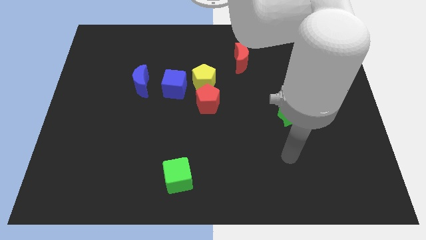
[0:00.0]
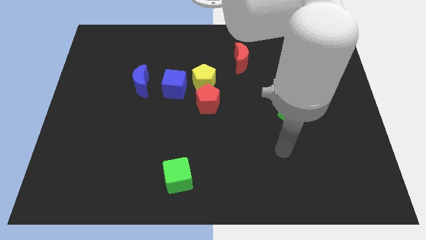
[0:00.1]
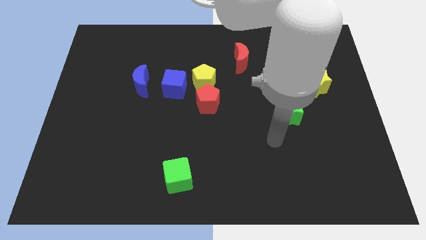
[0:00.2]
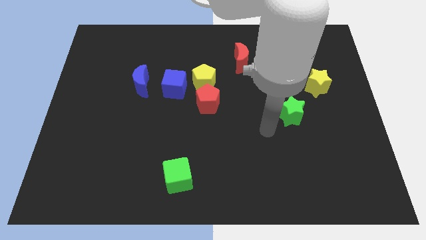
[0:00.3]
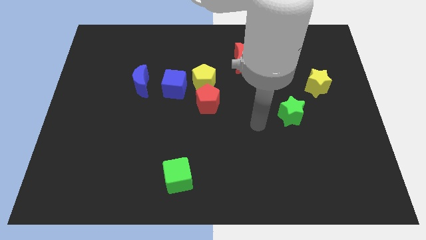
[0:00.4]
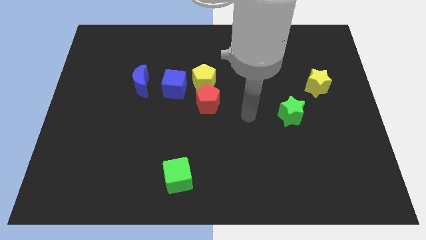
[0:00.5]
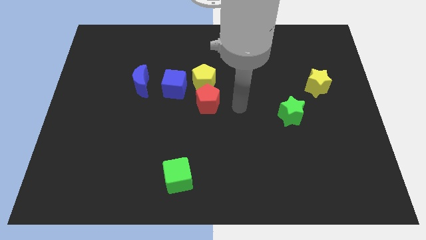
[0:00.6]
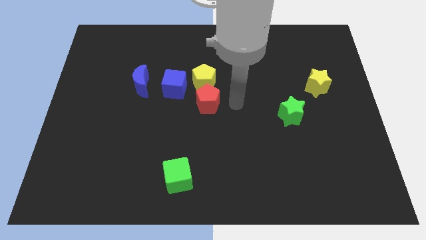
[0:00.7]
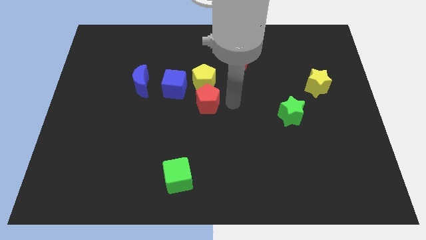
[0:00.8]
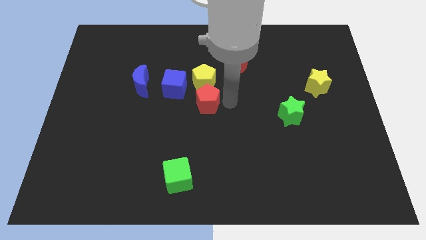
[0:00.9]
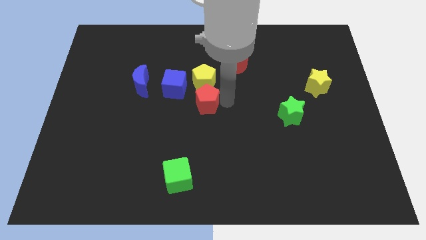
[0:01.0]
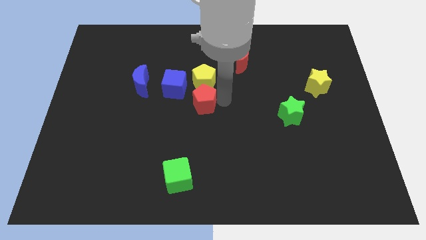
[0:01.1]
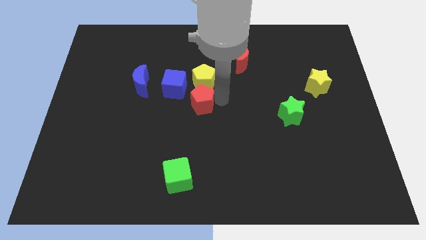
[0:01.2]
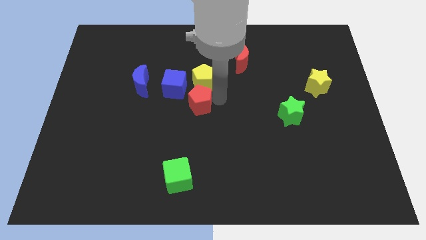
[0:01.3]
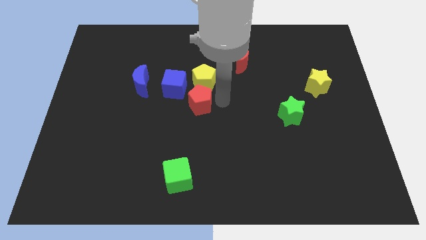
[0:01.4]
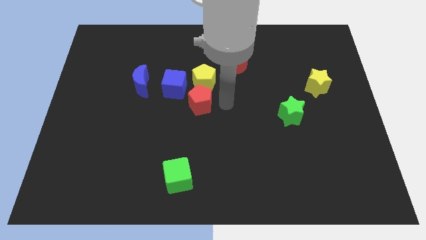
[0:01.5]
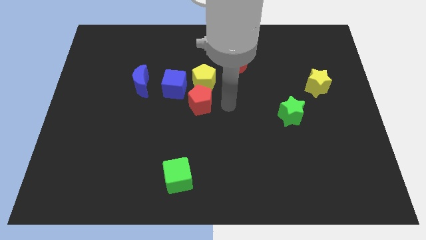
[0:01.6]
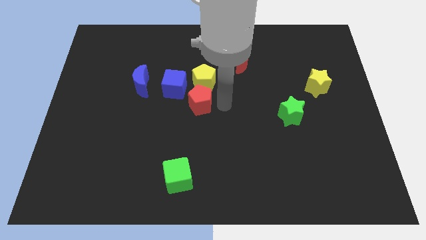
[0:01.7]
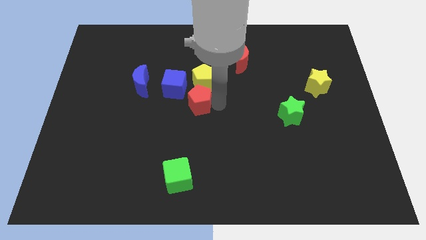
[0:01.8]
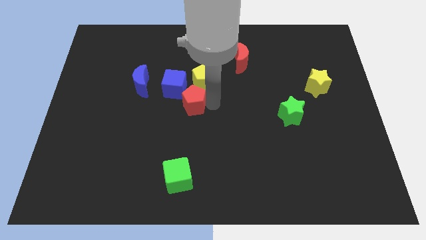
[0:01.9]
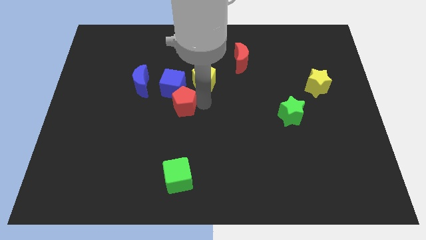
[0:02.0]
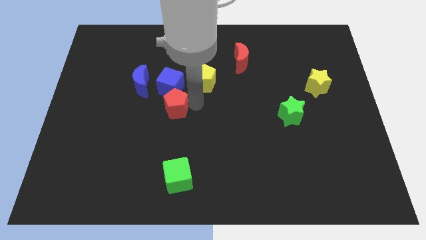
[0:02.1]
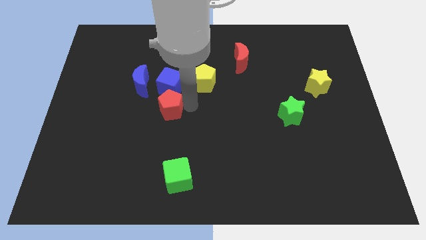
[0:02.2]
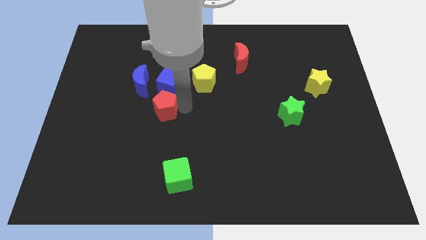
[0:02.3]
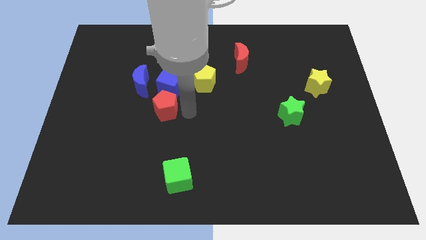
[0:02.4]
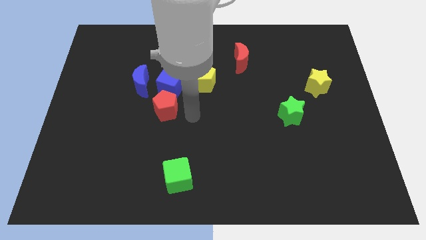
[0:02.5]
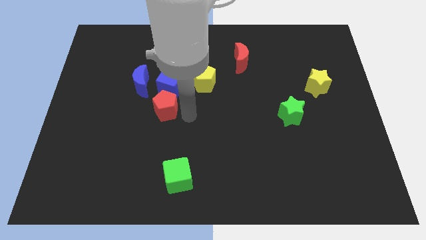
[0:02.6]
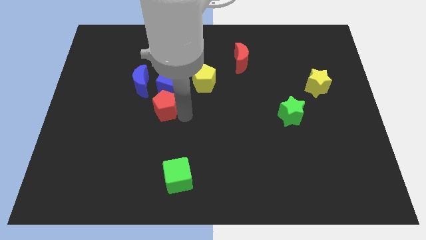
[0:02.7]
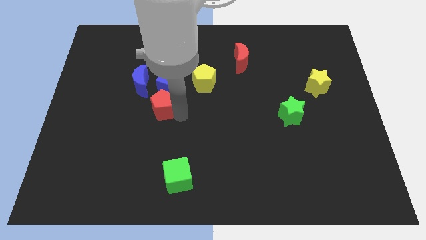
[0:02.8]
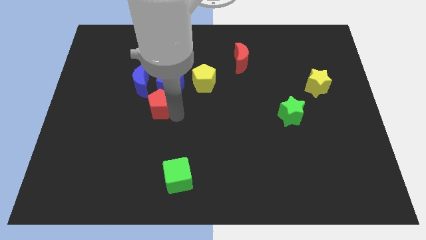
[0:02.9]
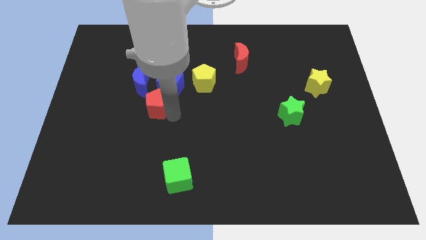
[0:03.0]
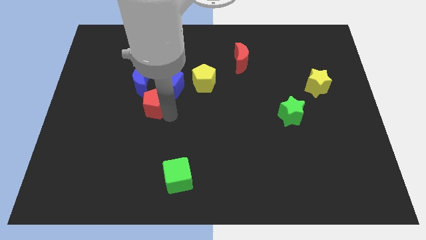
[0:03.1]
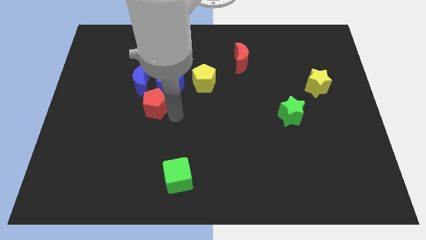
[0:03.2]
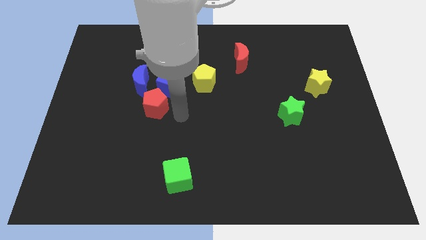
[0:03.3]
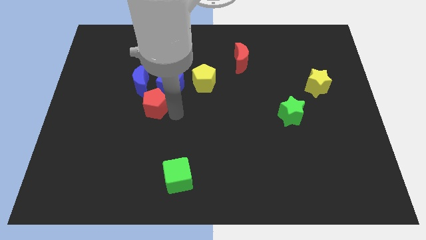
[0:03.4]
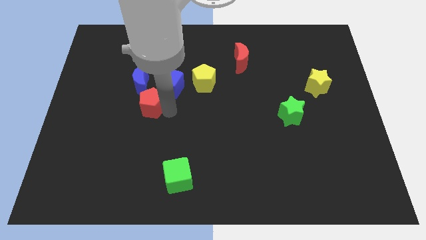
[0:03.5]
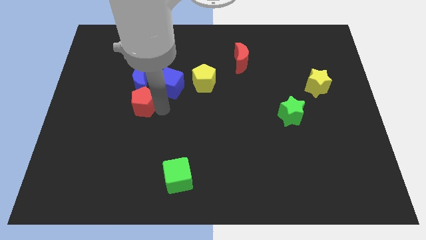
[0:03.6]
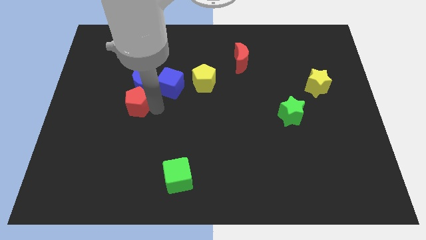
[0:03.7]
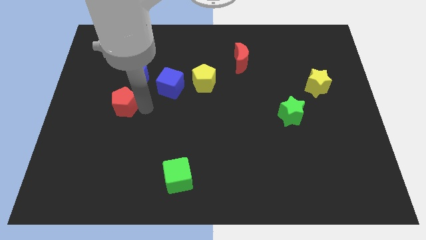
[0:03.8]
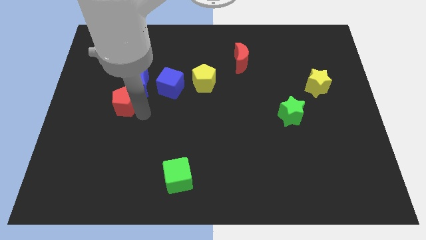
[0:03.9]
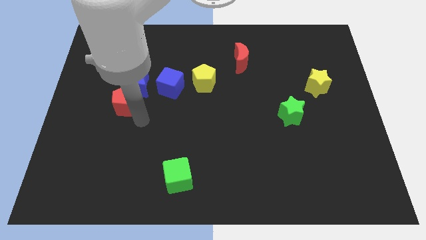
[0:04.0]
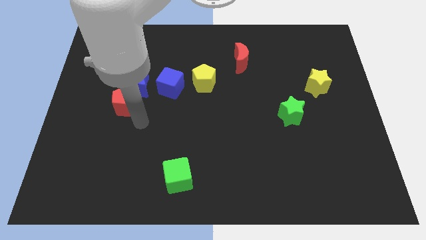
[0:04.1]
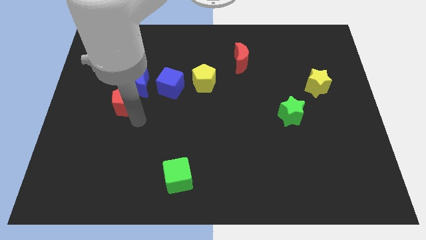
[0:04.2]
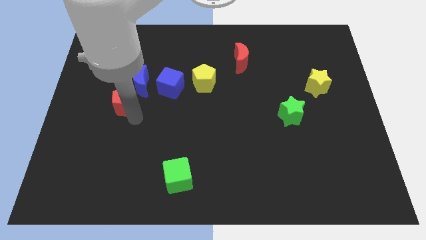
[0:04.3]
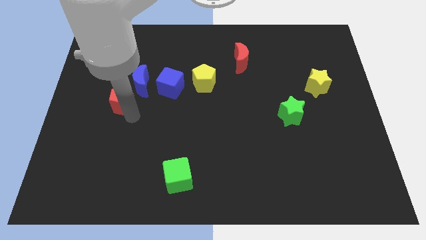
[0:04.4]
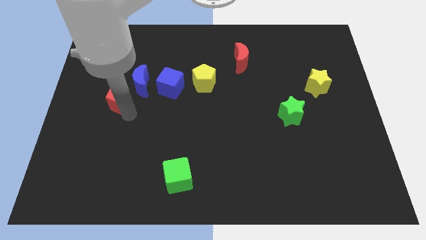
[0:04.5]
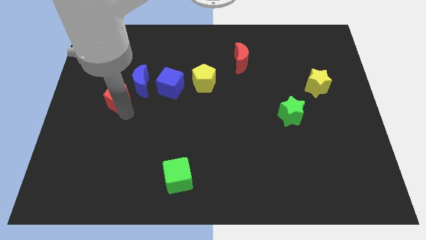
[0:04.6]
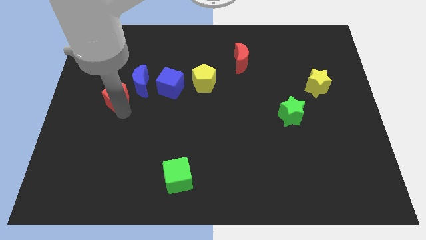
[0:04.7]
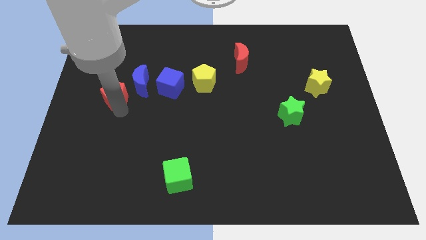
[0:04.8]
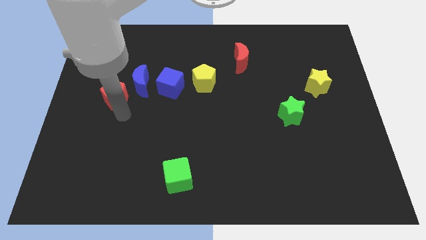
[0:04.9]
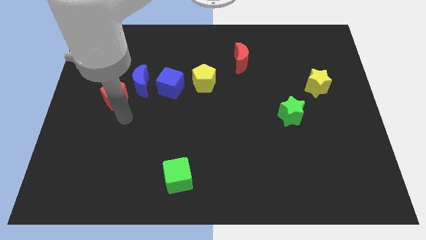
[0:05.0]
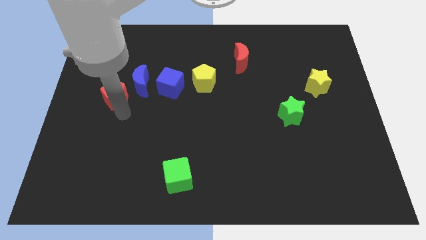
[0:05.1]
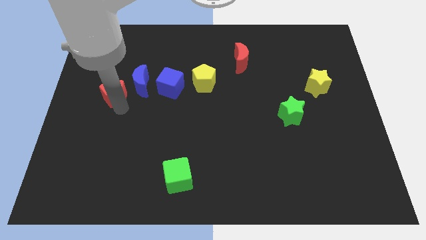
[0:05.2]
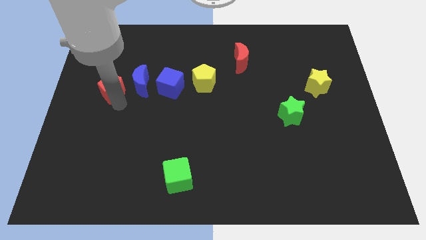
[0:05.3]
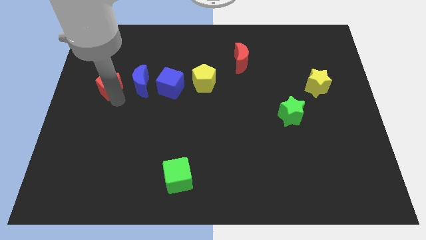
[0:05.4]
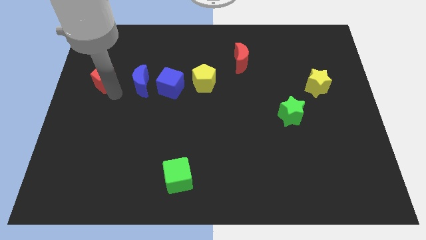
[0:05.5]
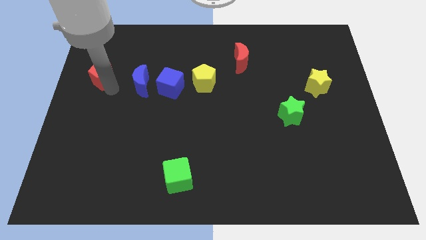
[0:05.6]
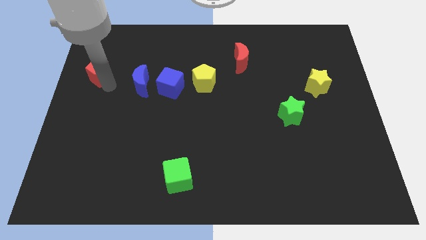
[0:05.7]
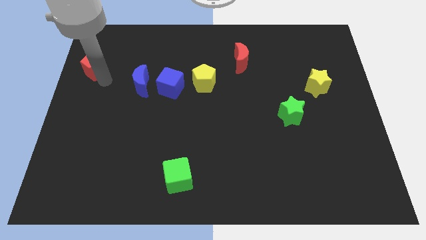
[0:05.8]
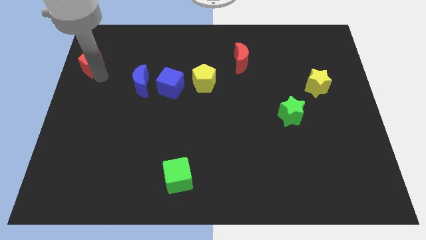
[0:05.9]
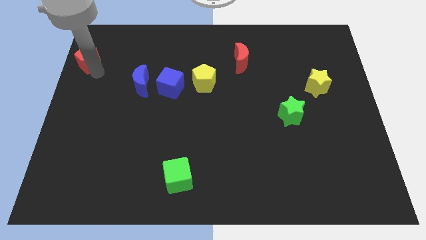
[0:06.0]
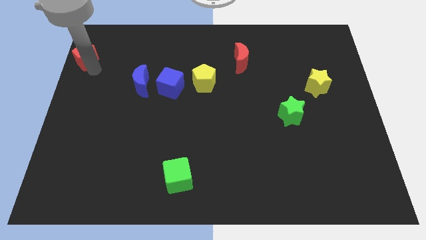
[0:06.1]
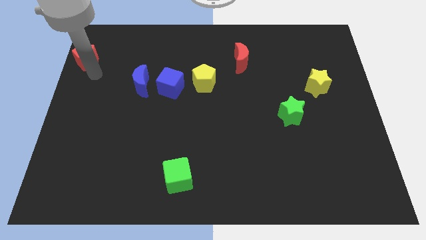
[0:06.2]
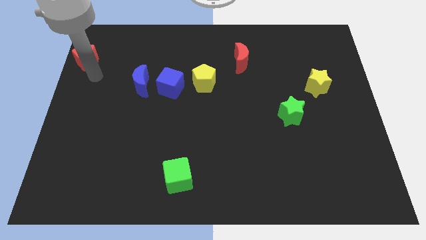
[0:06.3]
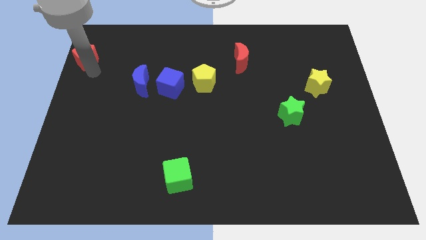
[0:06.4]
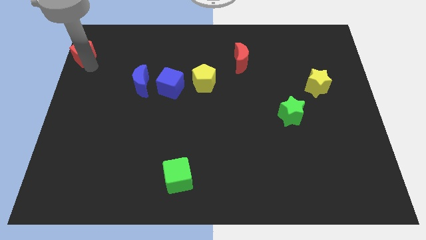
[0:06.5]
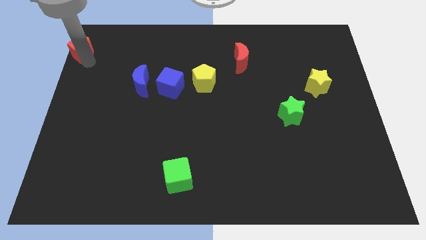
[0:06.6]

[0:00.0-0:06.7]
move the red pentagon to the top left corner

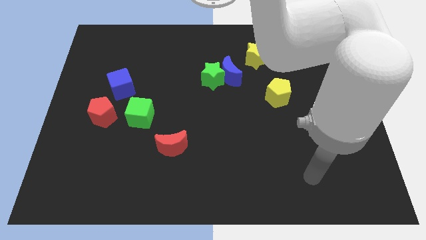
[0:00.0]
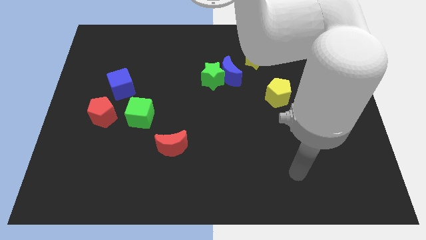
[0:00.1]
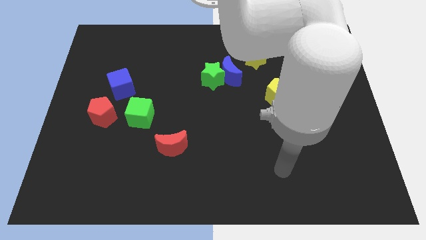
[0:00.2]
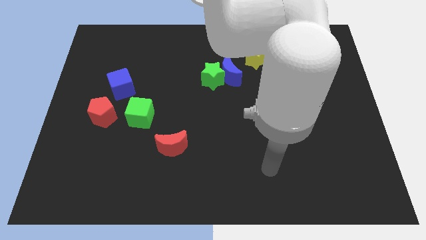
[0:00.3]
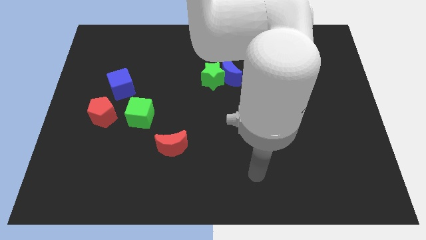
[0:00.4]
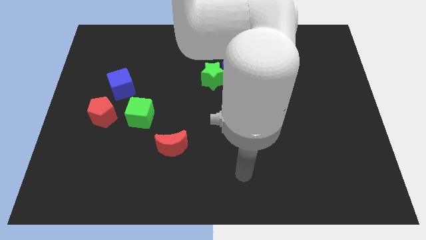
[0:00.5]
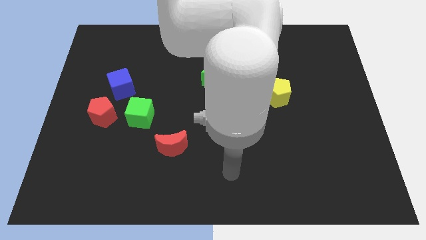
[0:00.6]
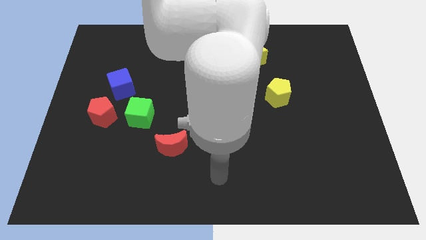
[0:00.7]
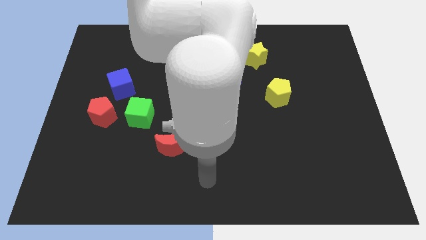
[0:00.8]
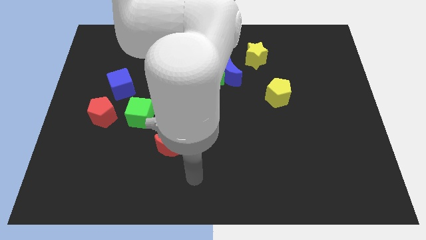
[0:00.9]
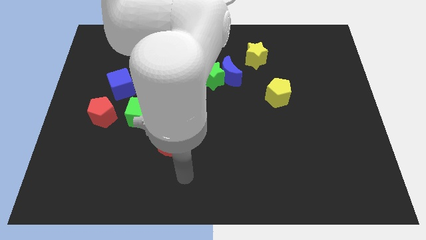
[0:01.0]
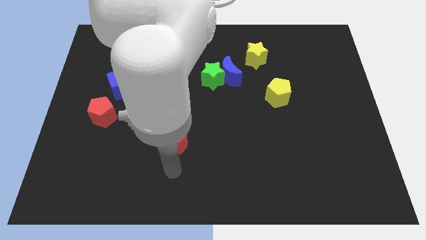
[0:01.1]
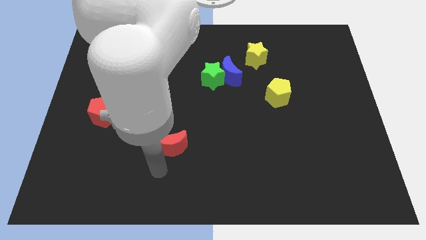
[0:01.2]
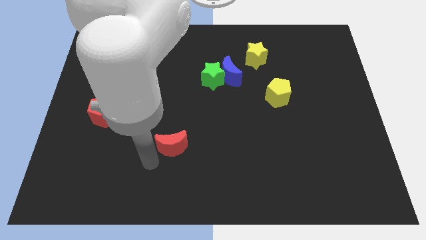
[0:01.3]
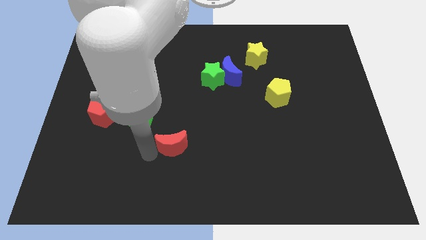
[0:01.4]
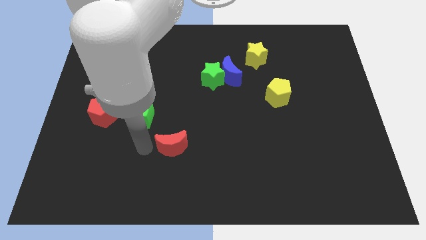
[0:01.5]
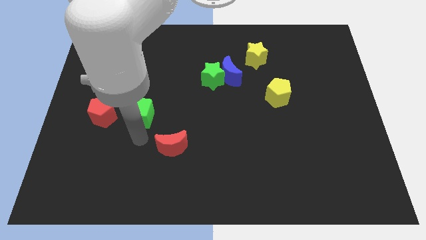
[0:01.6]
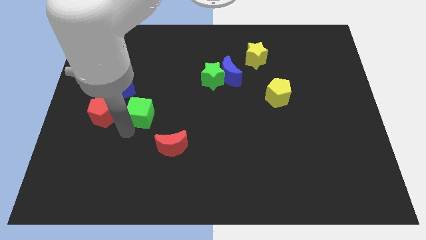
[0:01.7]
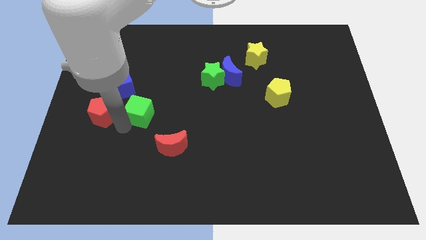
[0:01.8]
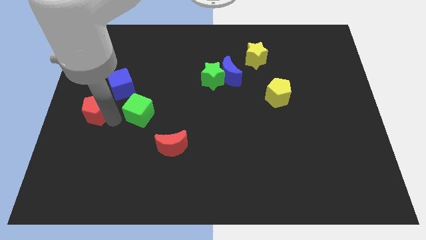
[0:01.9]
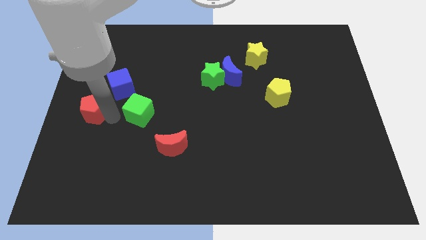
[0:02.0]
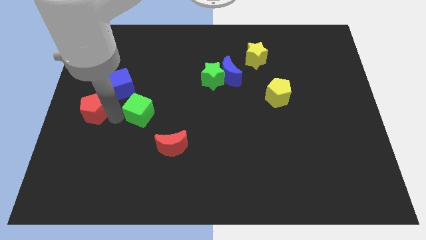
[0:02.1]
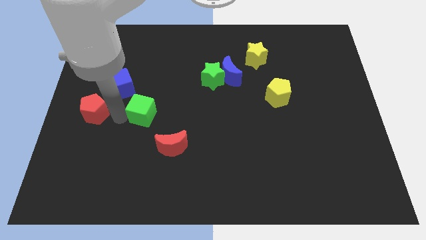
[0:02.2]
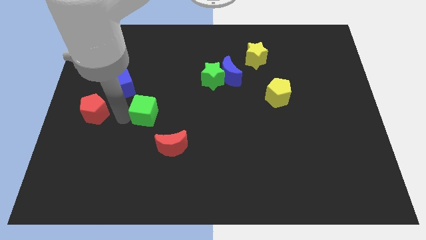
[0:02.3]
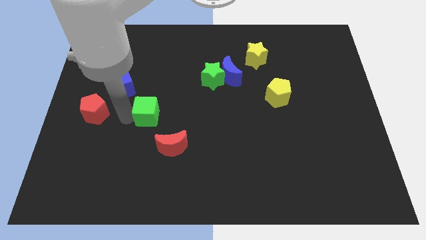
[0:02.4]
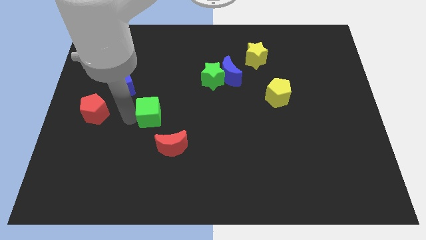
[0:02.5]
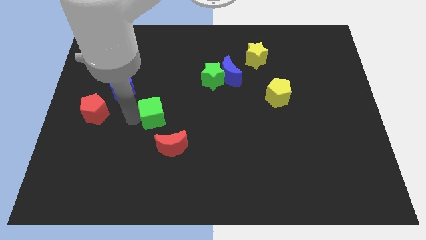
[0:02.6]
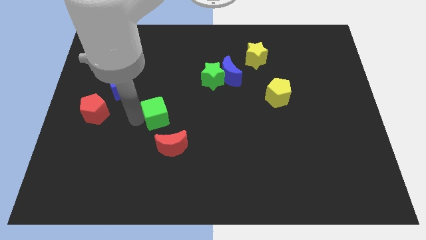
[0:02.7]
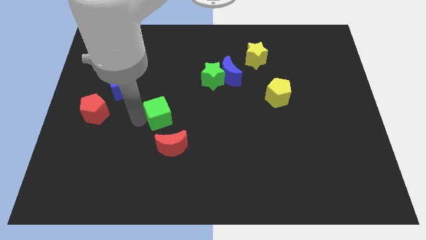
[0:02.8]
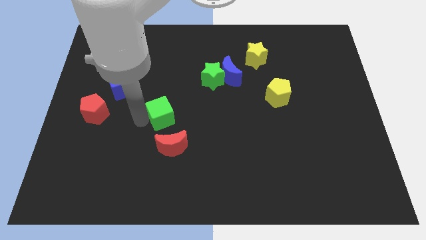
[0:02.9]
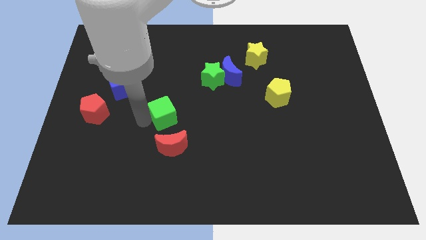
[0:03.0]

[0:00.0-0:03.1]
slide the green cube to the center of the board
